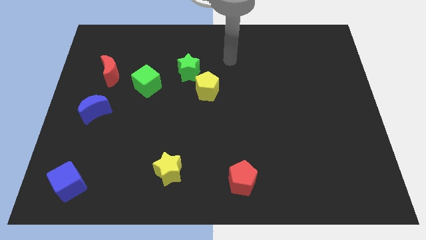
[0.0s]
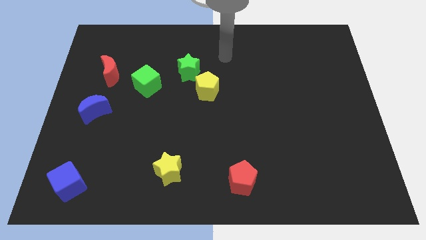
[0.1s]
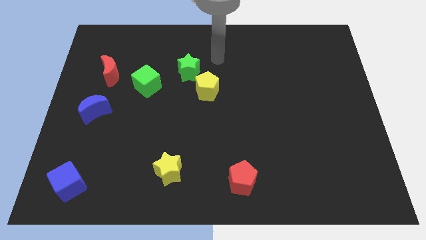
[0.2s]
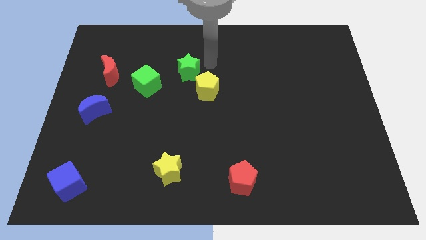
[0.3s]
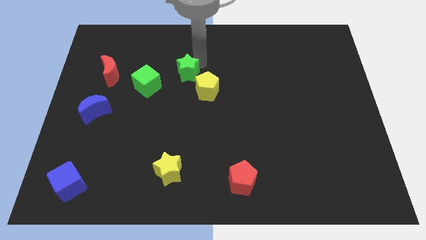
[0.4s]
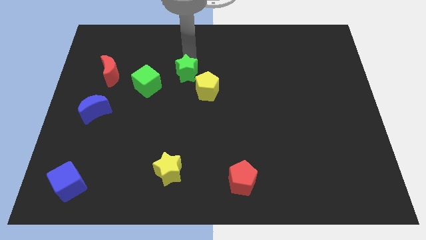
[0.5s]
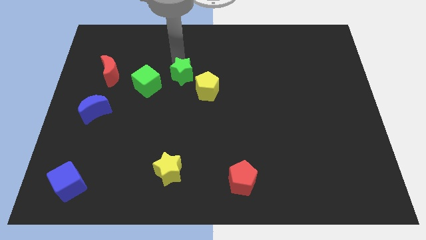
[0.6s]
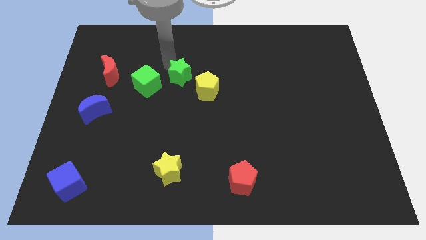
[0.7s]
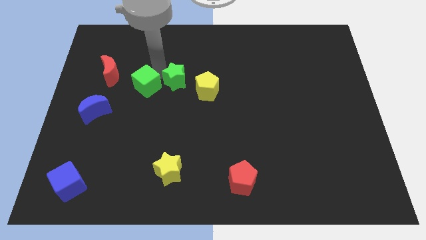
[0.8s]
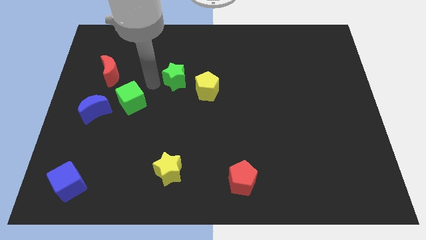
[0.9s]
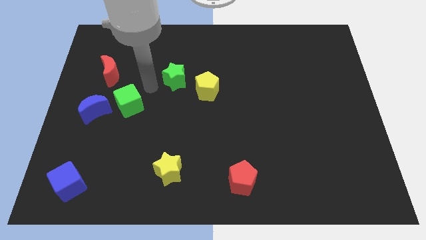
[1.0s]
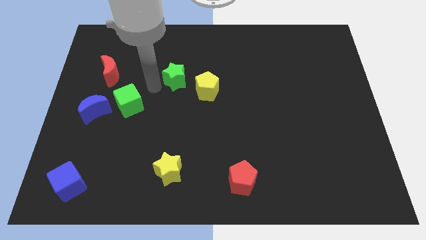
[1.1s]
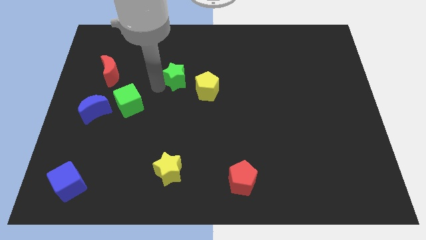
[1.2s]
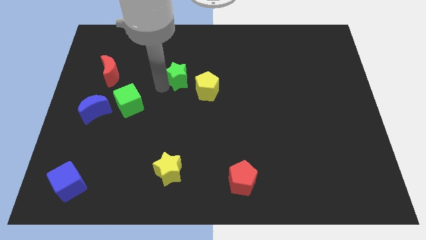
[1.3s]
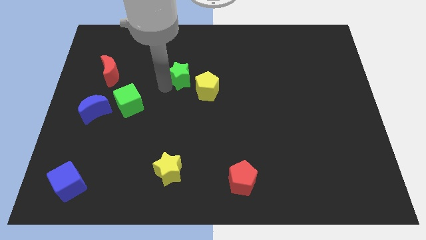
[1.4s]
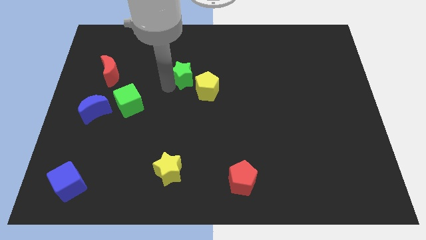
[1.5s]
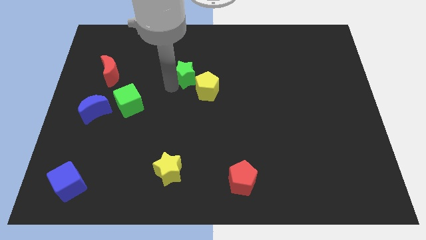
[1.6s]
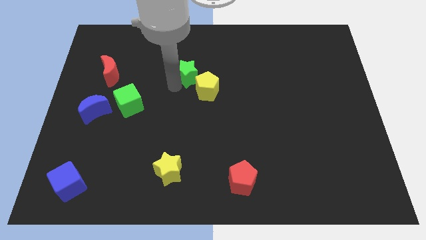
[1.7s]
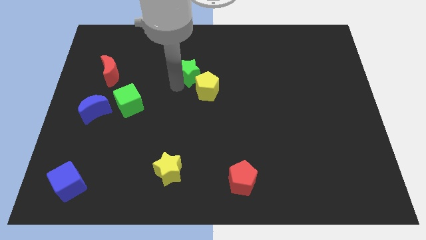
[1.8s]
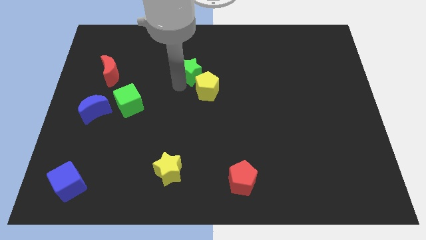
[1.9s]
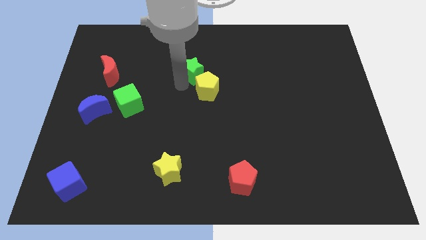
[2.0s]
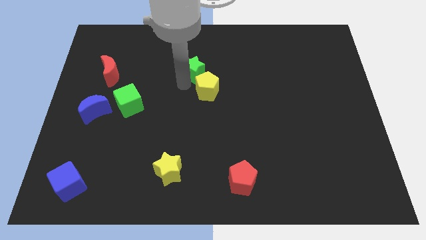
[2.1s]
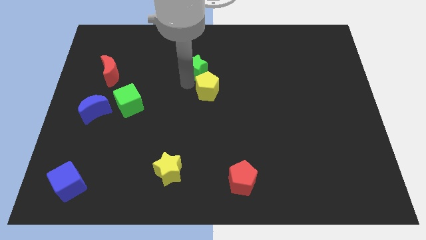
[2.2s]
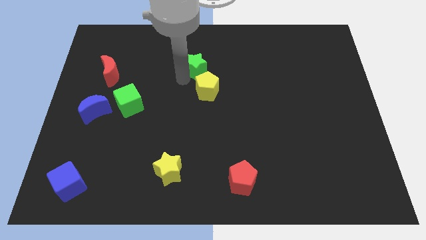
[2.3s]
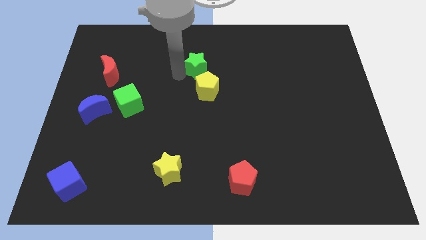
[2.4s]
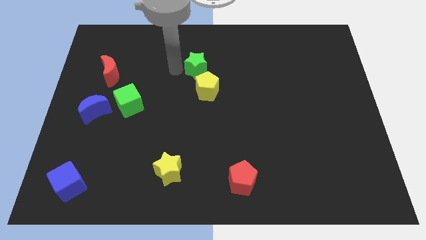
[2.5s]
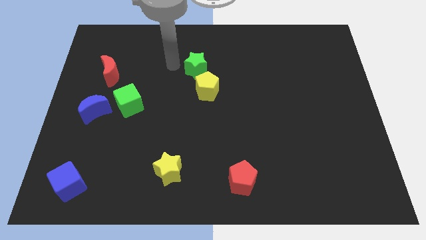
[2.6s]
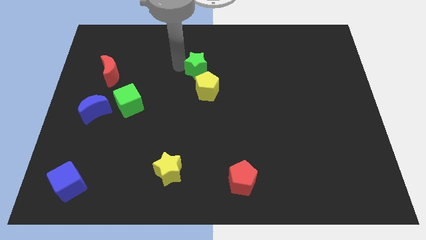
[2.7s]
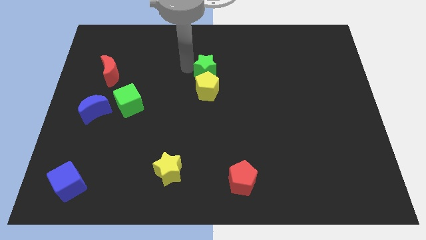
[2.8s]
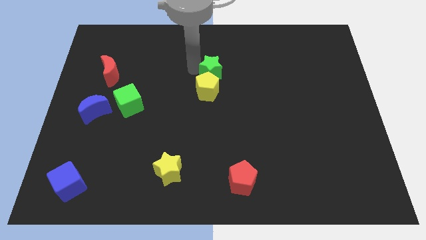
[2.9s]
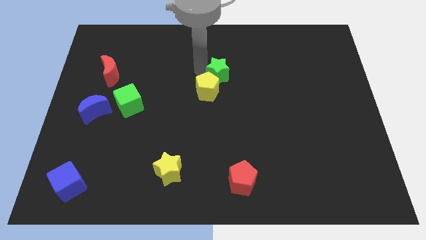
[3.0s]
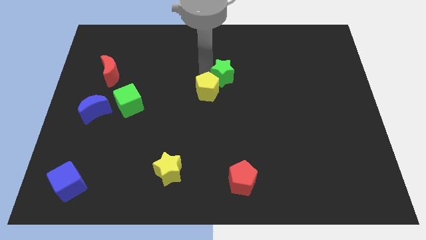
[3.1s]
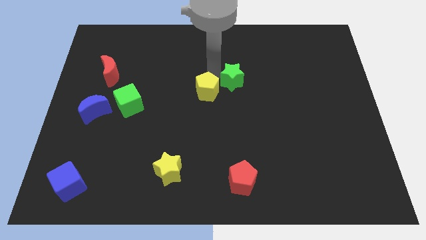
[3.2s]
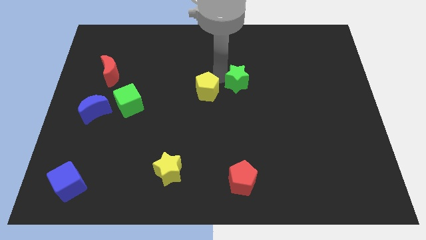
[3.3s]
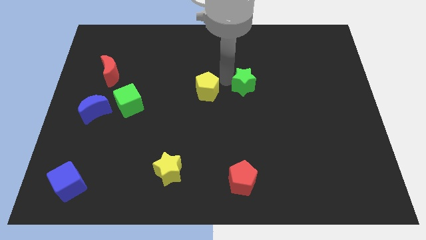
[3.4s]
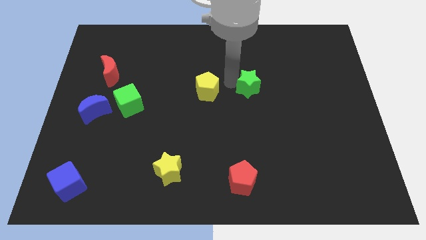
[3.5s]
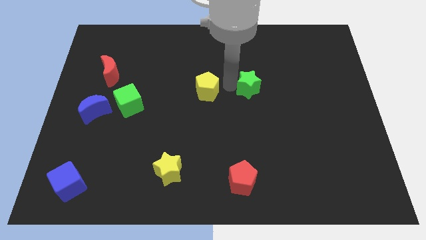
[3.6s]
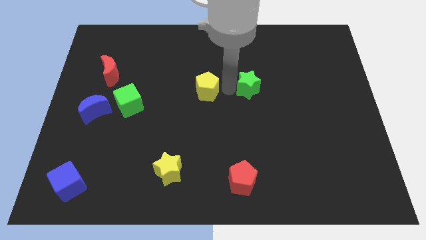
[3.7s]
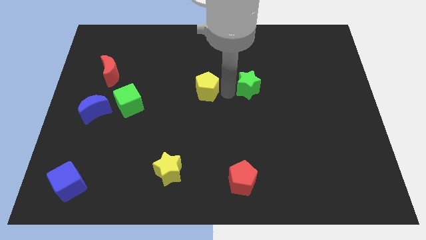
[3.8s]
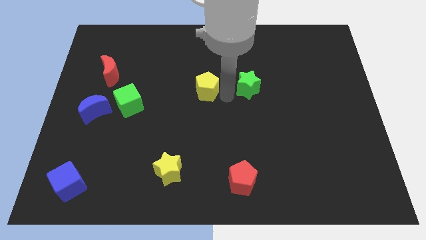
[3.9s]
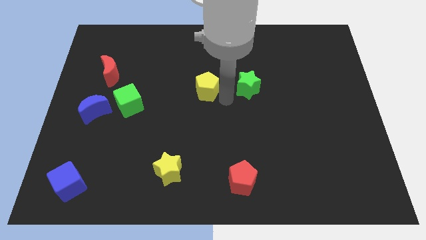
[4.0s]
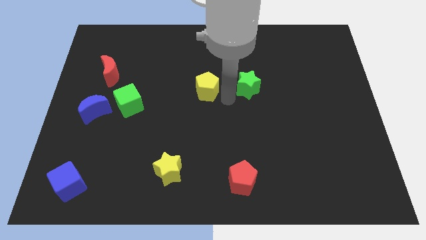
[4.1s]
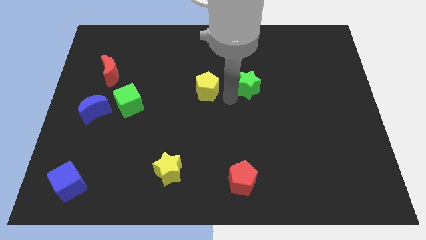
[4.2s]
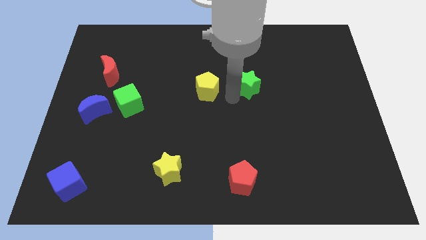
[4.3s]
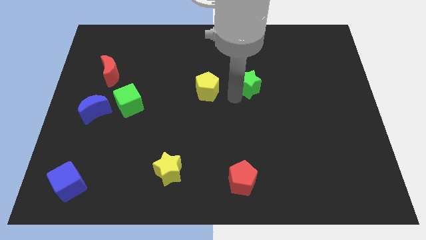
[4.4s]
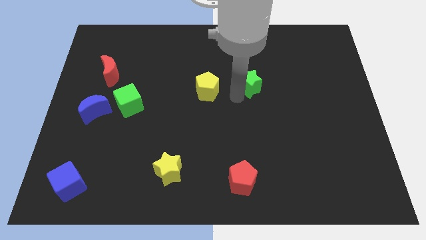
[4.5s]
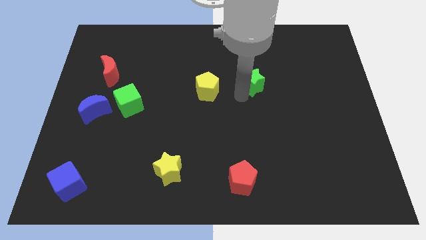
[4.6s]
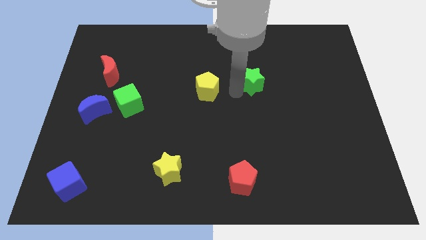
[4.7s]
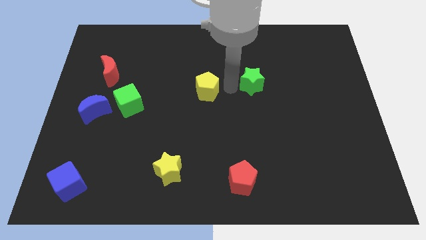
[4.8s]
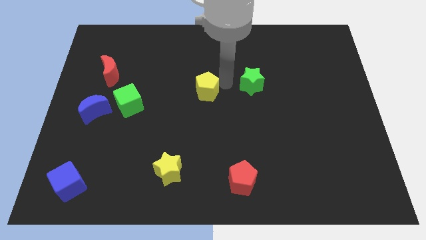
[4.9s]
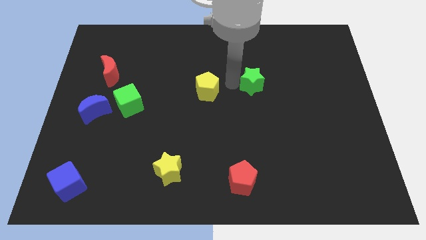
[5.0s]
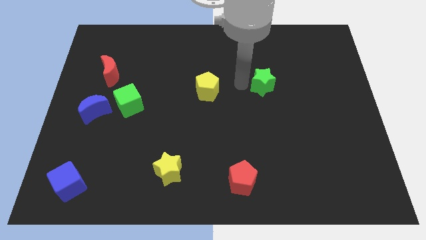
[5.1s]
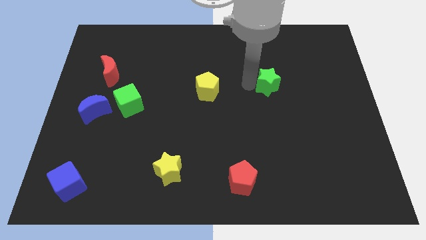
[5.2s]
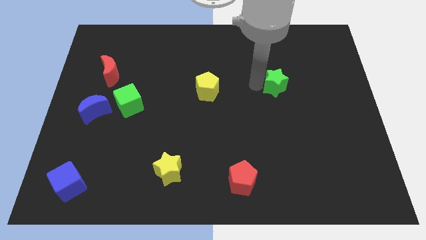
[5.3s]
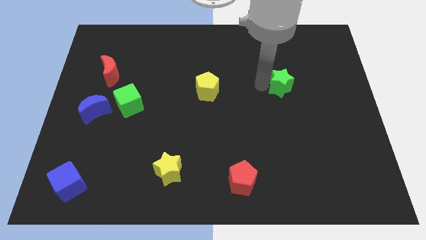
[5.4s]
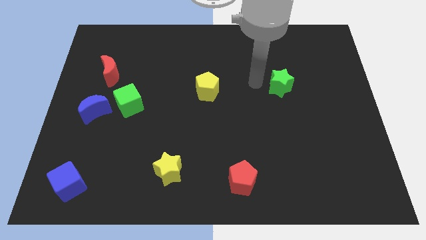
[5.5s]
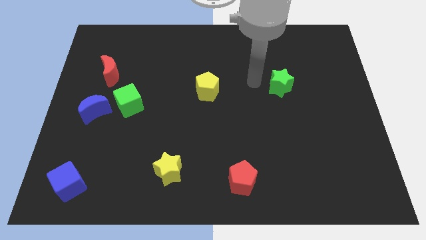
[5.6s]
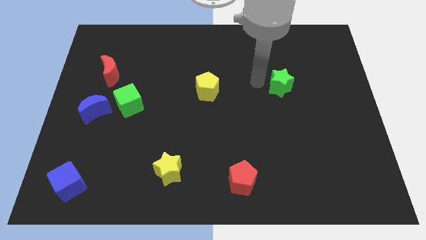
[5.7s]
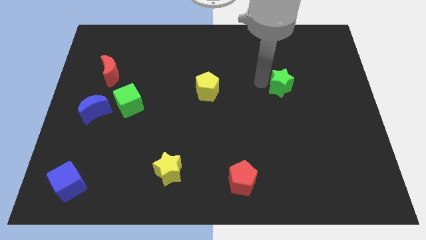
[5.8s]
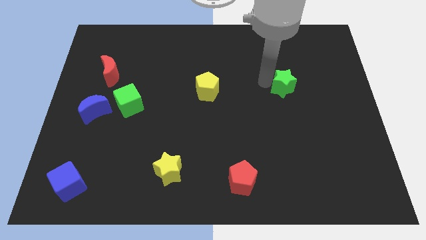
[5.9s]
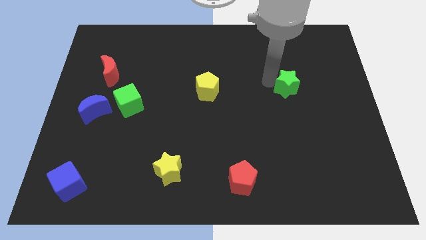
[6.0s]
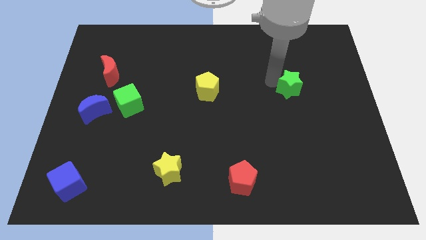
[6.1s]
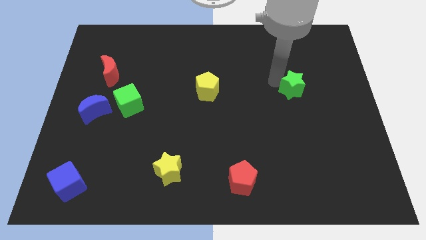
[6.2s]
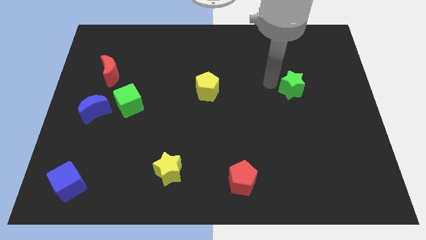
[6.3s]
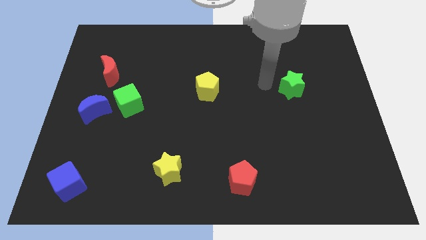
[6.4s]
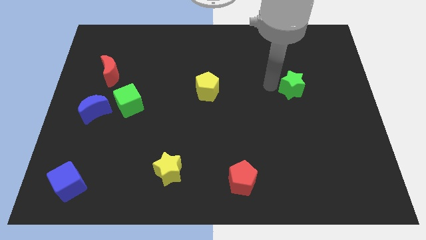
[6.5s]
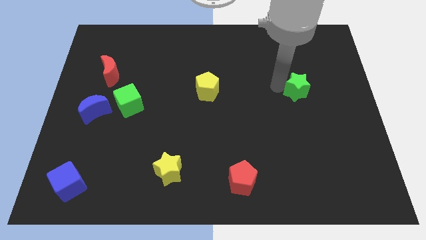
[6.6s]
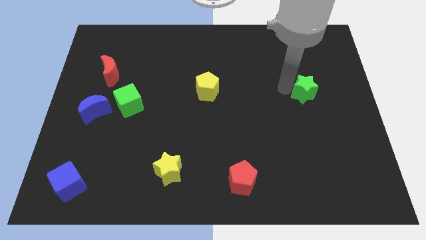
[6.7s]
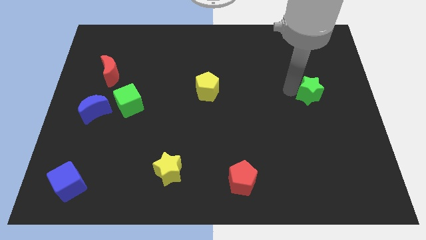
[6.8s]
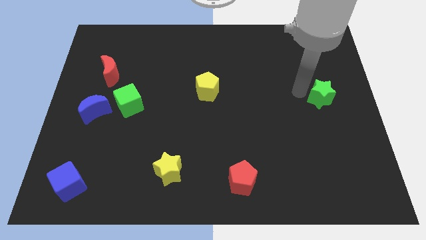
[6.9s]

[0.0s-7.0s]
push the green star to the right side of the board
